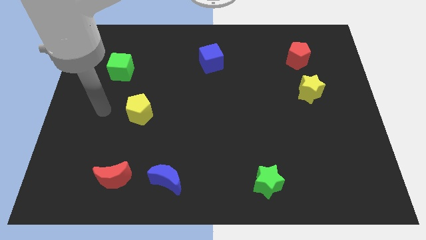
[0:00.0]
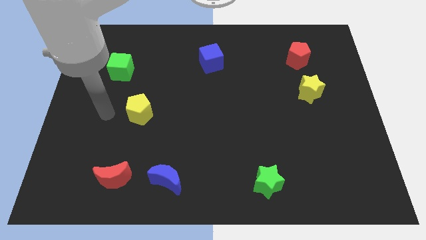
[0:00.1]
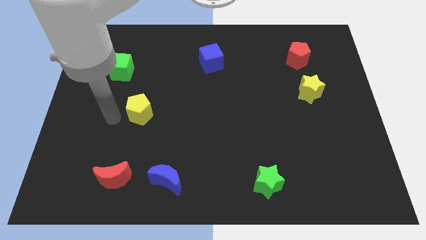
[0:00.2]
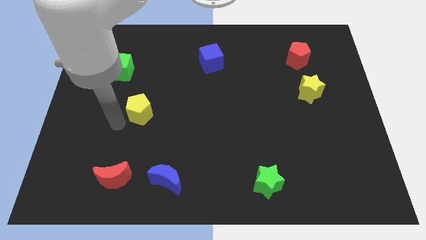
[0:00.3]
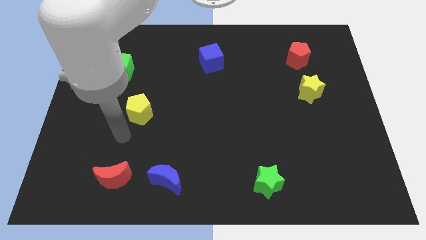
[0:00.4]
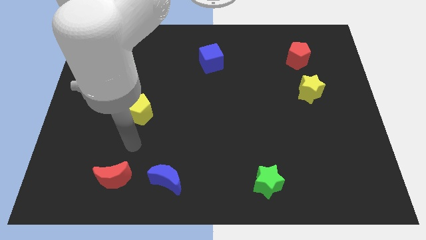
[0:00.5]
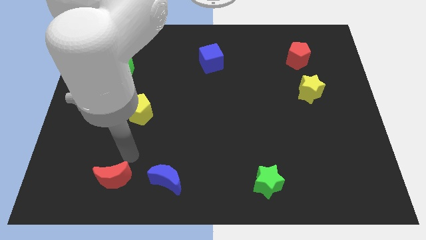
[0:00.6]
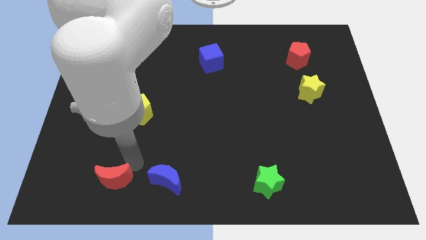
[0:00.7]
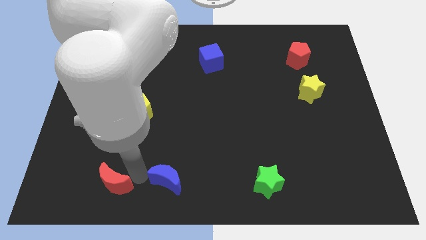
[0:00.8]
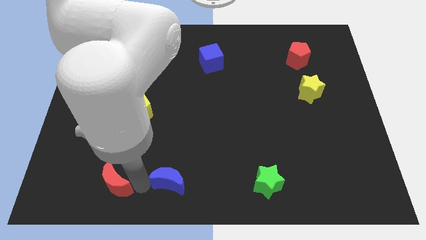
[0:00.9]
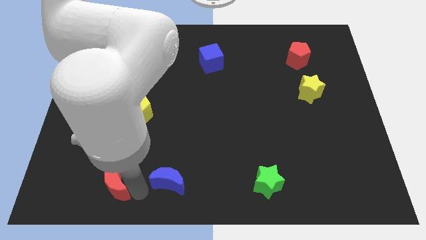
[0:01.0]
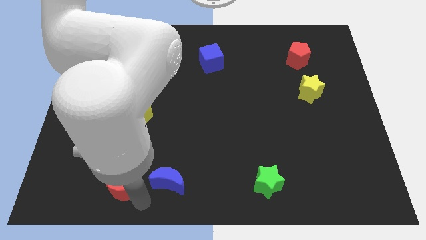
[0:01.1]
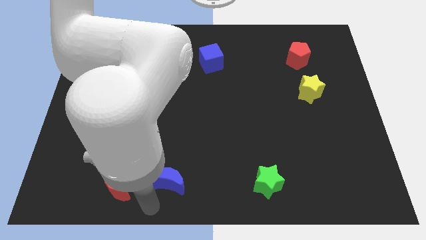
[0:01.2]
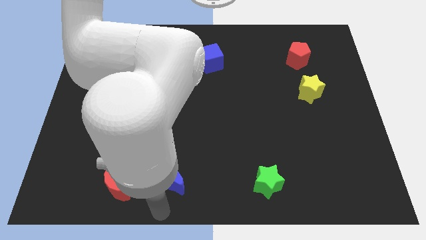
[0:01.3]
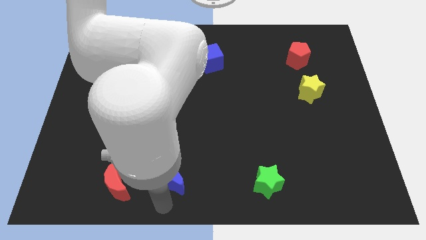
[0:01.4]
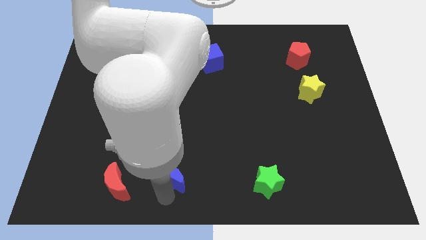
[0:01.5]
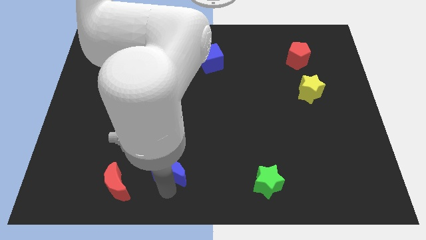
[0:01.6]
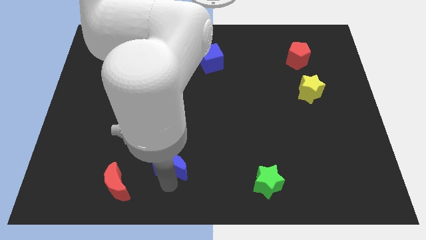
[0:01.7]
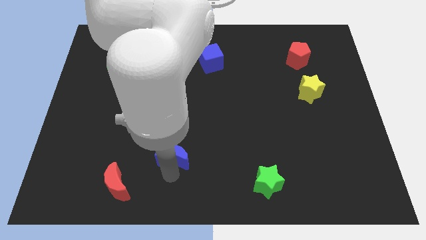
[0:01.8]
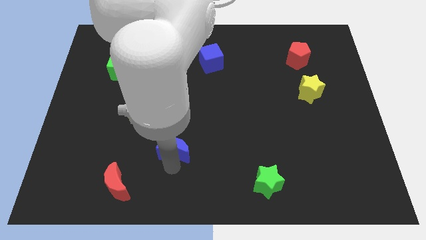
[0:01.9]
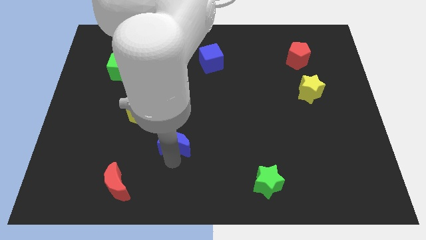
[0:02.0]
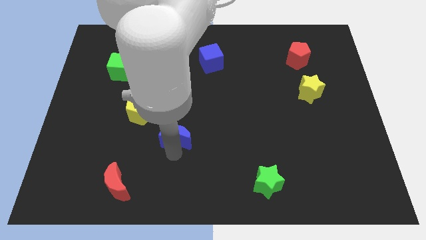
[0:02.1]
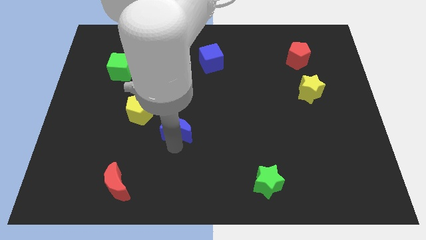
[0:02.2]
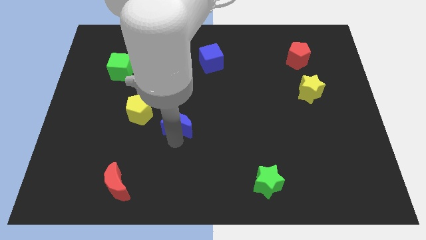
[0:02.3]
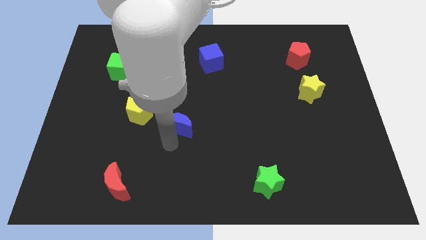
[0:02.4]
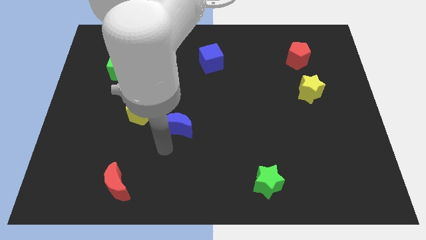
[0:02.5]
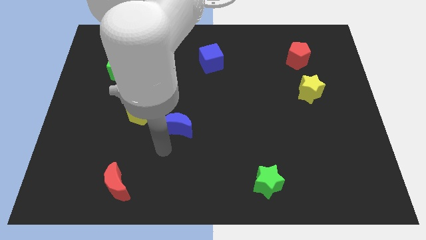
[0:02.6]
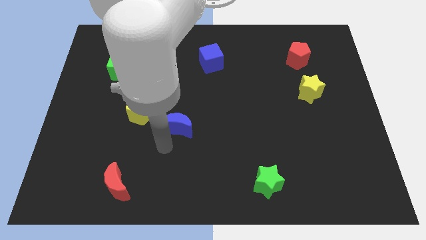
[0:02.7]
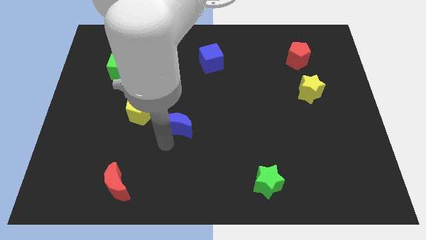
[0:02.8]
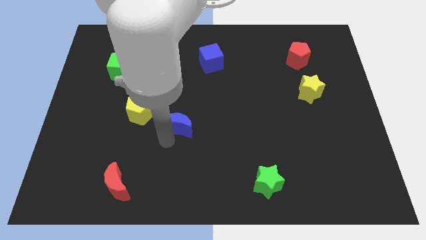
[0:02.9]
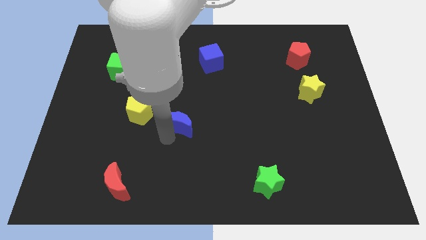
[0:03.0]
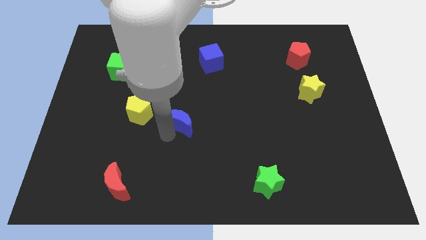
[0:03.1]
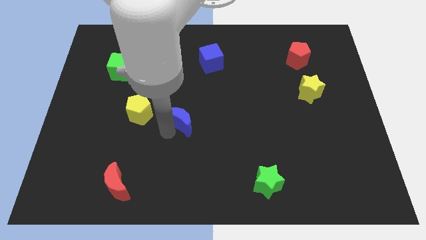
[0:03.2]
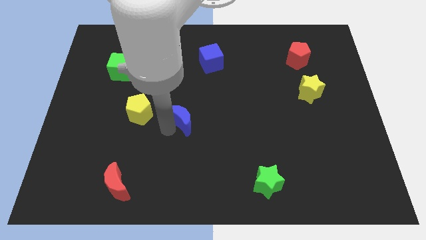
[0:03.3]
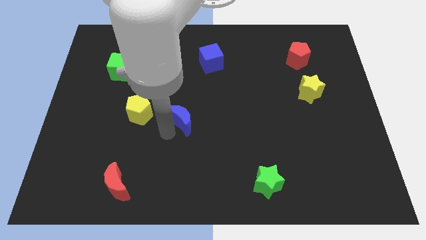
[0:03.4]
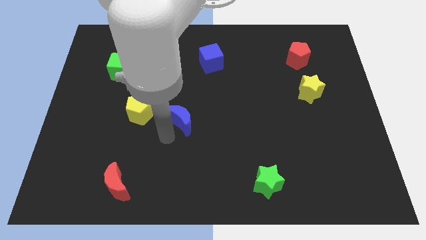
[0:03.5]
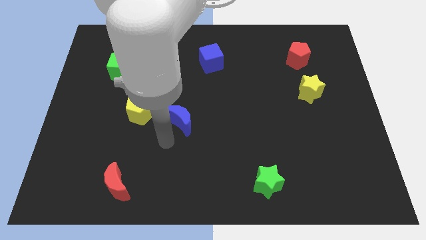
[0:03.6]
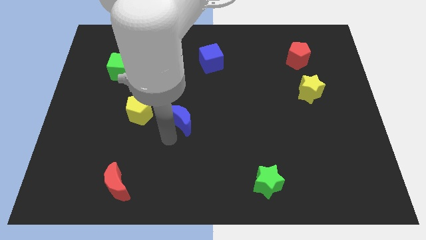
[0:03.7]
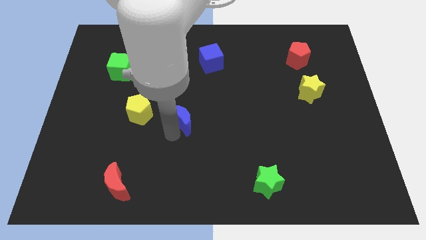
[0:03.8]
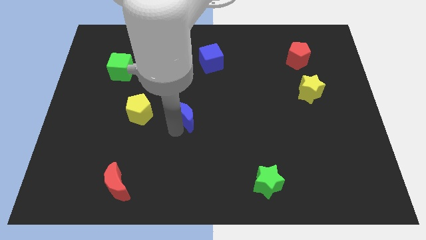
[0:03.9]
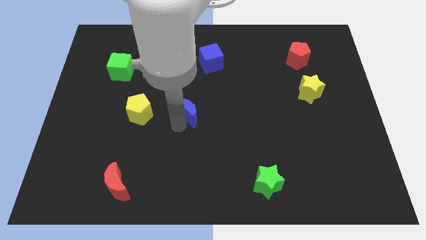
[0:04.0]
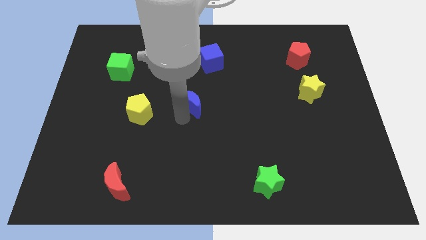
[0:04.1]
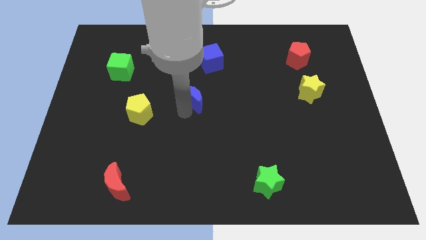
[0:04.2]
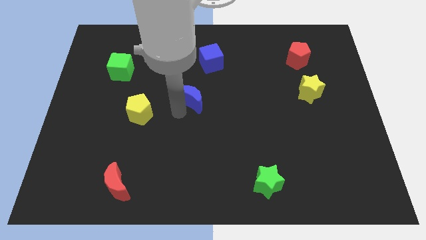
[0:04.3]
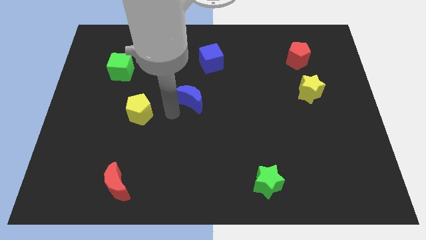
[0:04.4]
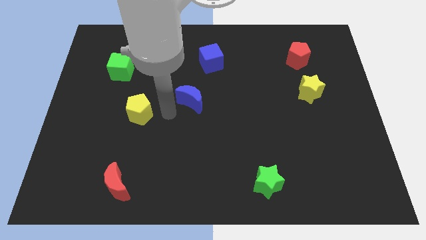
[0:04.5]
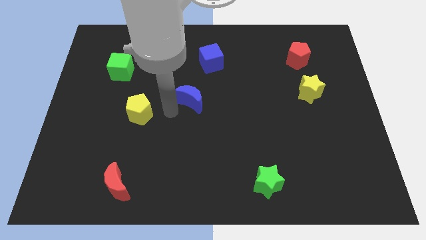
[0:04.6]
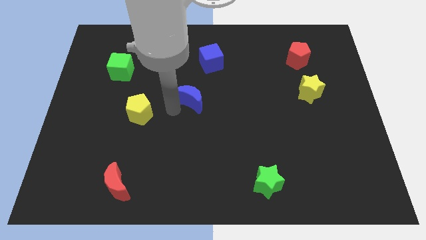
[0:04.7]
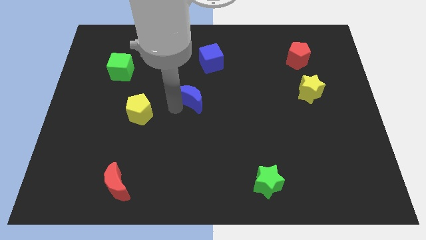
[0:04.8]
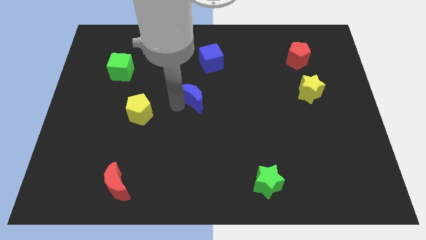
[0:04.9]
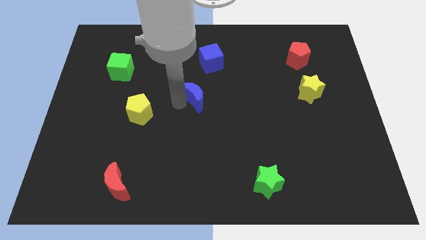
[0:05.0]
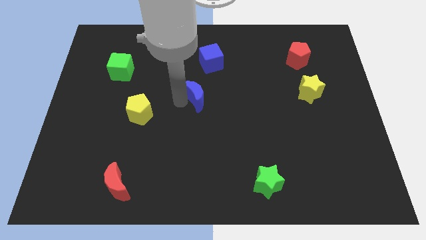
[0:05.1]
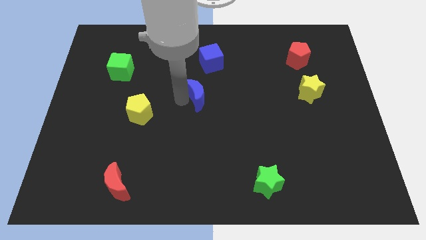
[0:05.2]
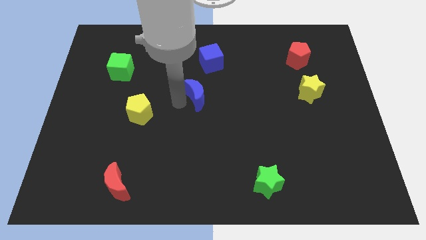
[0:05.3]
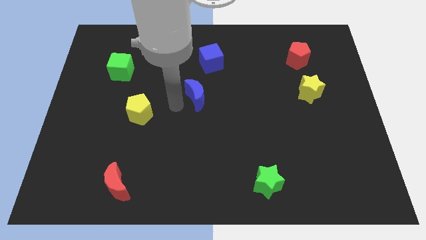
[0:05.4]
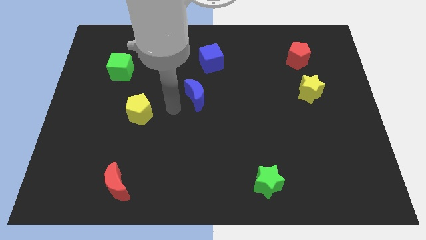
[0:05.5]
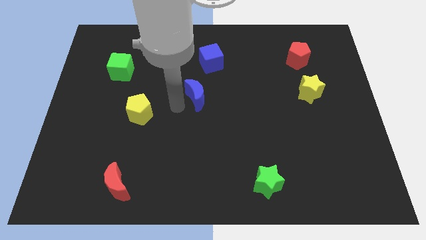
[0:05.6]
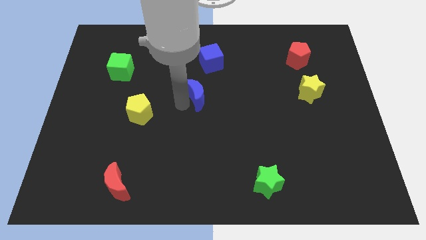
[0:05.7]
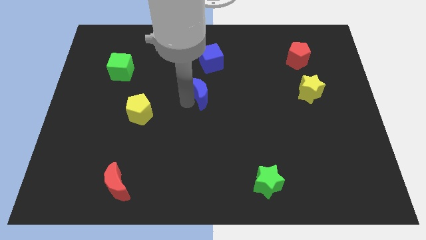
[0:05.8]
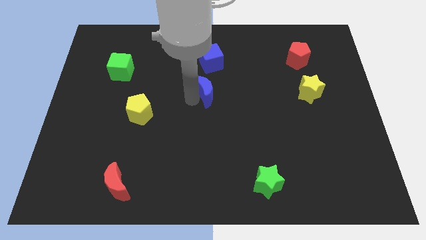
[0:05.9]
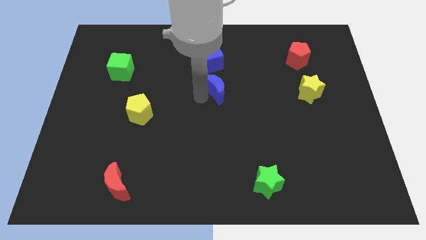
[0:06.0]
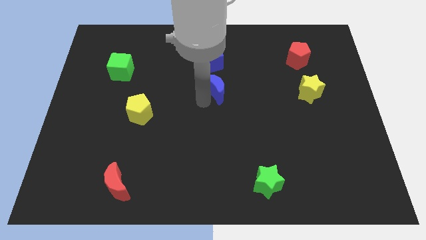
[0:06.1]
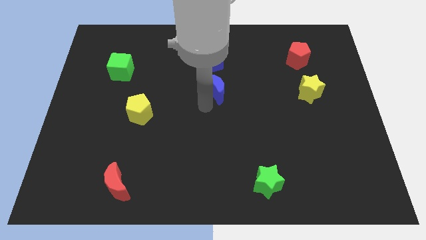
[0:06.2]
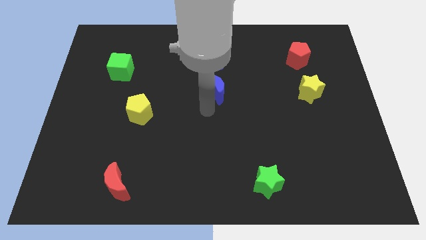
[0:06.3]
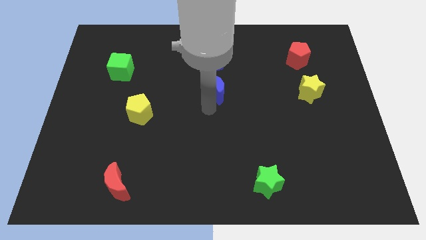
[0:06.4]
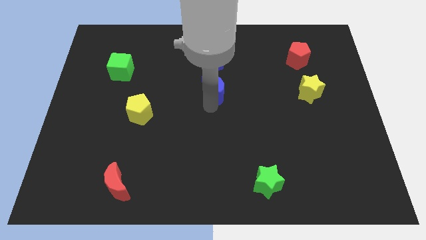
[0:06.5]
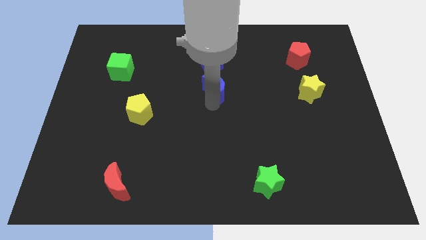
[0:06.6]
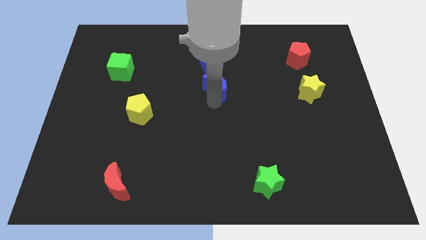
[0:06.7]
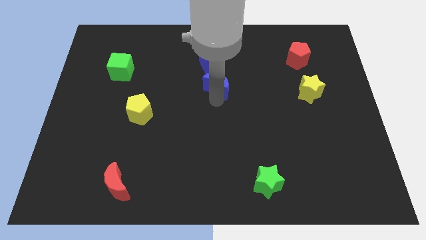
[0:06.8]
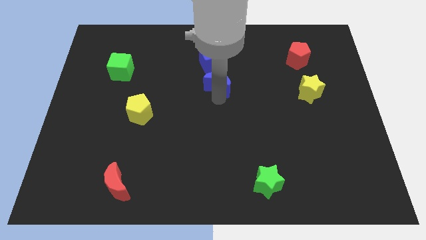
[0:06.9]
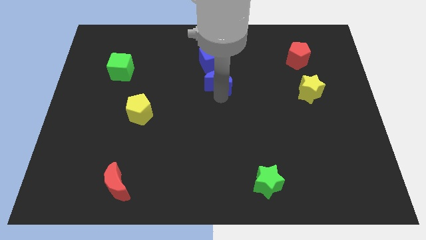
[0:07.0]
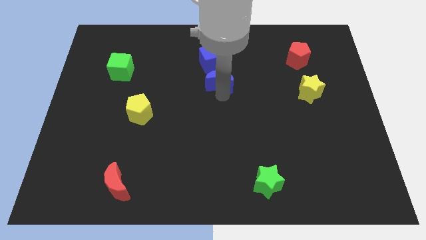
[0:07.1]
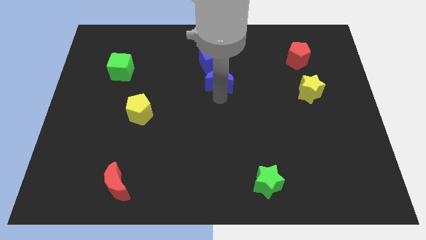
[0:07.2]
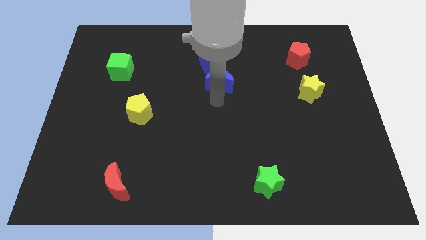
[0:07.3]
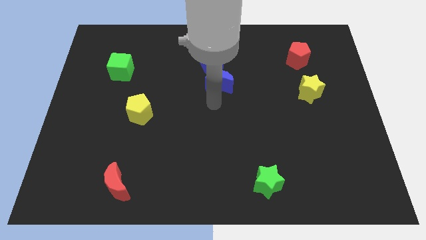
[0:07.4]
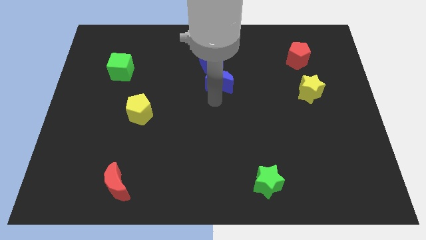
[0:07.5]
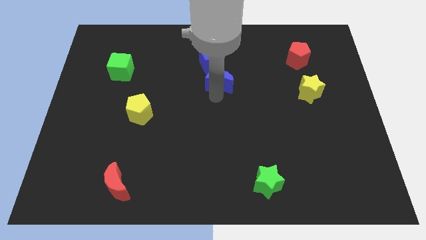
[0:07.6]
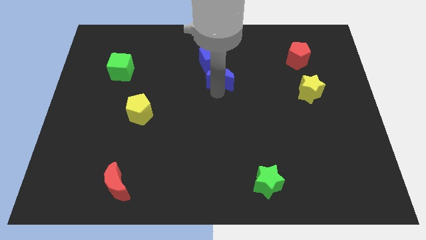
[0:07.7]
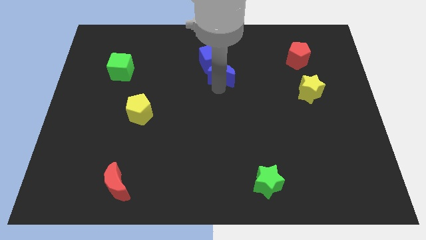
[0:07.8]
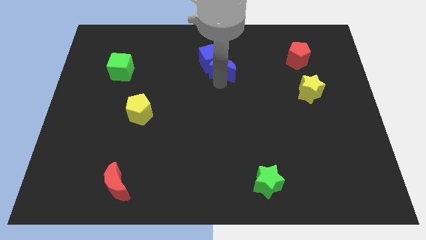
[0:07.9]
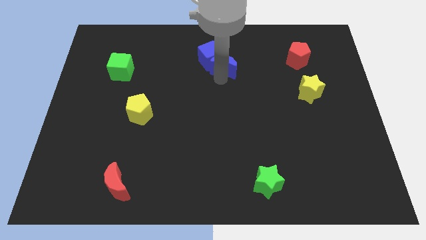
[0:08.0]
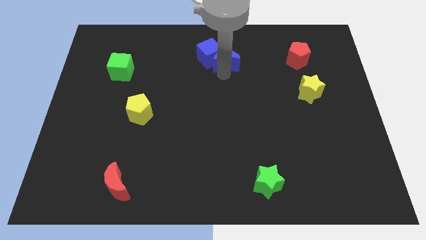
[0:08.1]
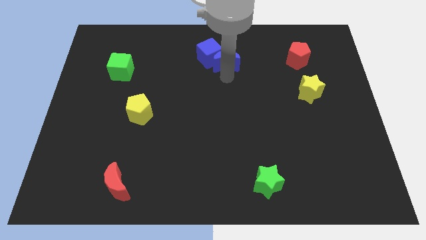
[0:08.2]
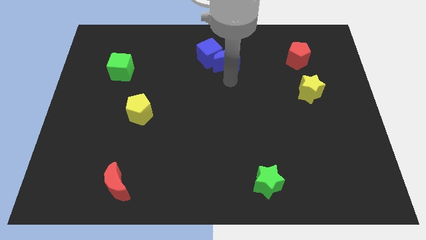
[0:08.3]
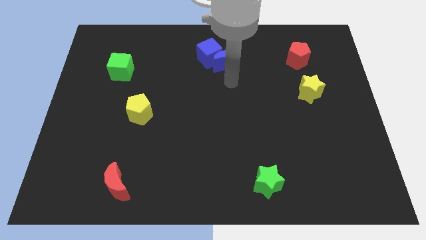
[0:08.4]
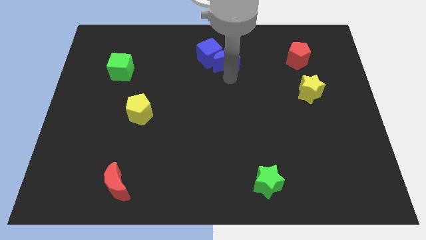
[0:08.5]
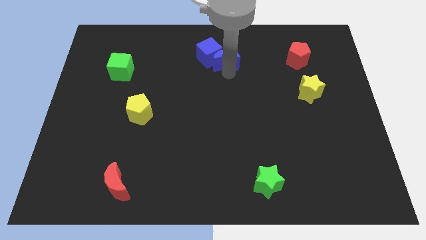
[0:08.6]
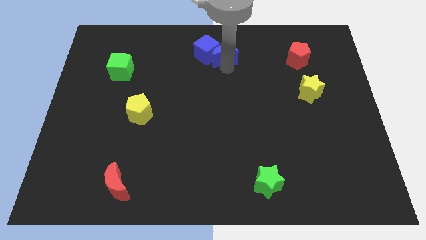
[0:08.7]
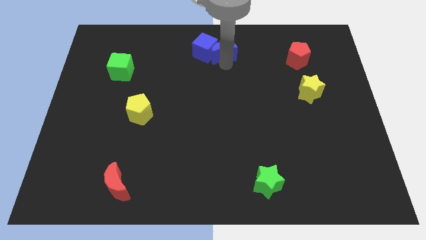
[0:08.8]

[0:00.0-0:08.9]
move the blue moon to the towards your base
